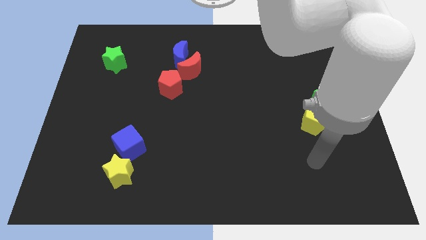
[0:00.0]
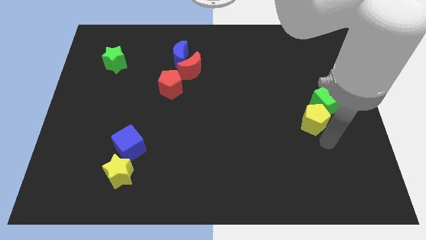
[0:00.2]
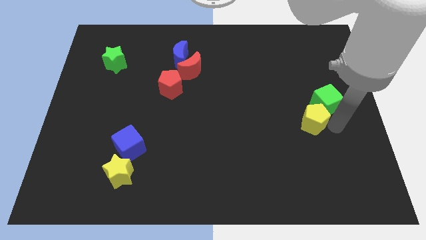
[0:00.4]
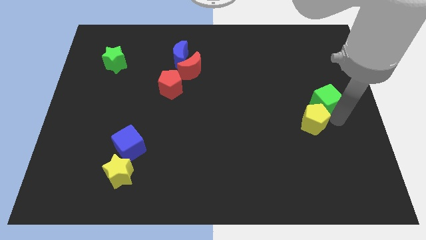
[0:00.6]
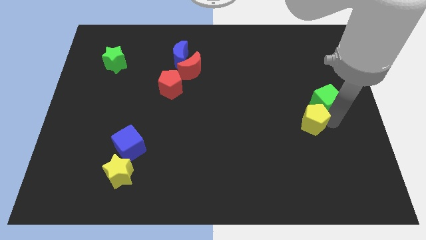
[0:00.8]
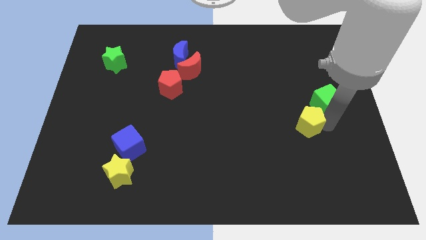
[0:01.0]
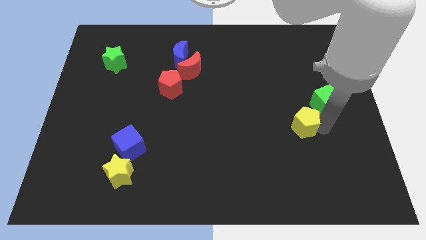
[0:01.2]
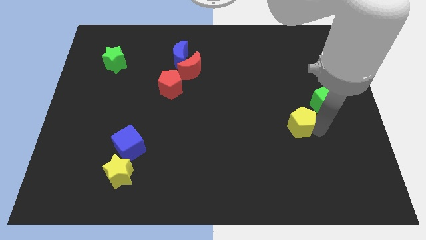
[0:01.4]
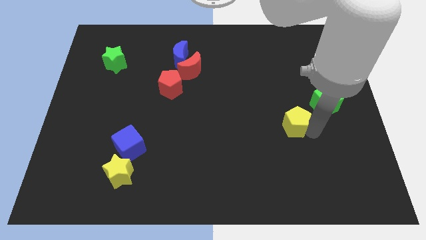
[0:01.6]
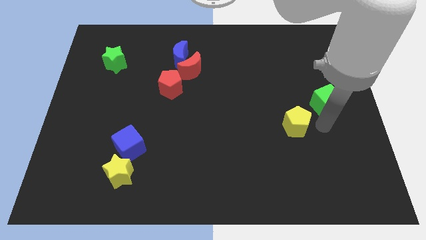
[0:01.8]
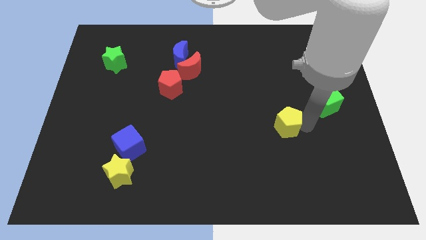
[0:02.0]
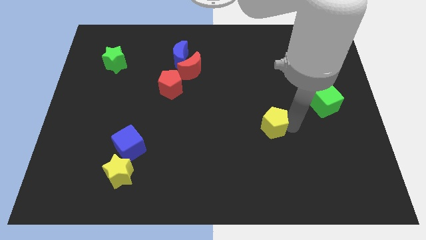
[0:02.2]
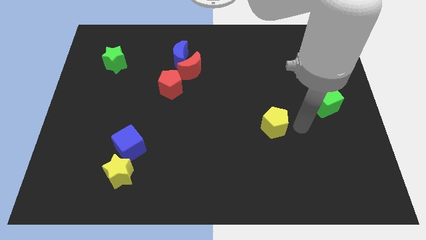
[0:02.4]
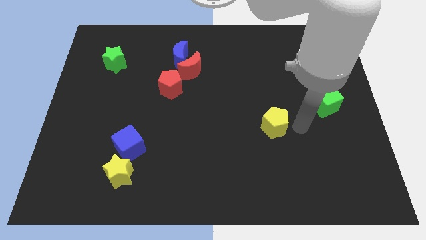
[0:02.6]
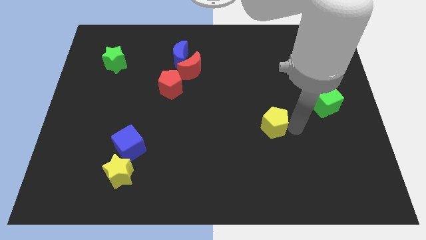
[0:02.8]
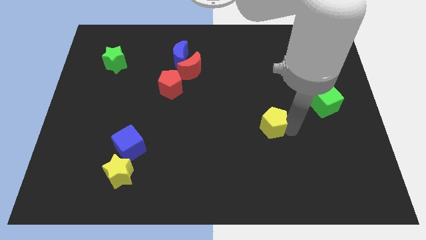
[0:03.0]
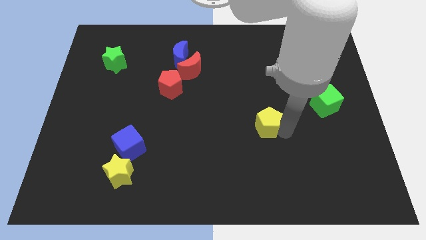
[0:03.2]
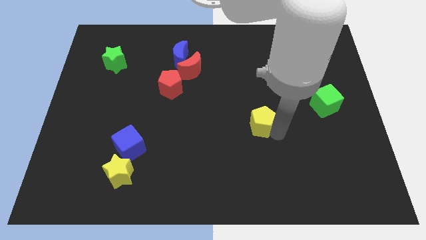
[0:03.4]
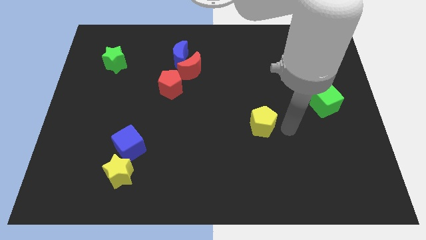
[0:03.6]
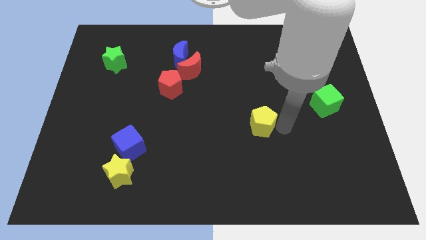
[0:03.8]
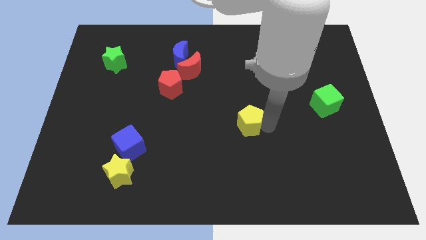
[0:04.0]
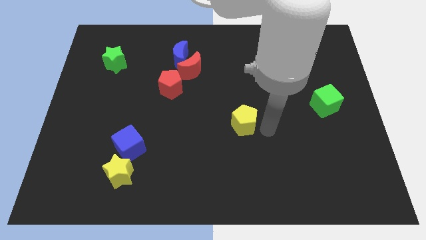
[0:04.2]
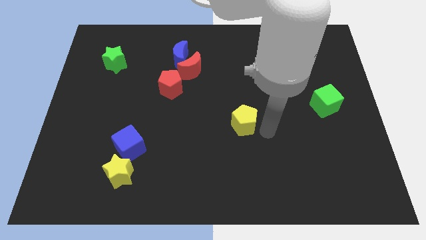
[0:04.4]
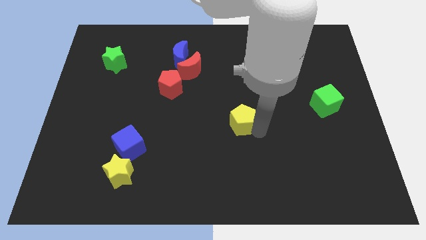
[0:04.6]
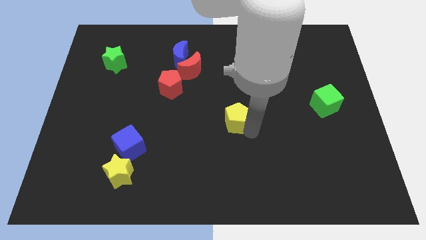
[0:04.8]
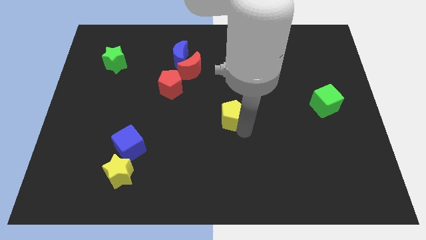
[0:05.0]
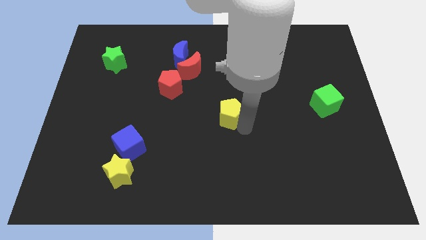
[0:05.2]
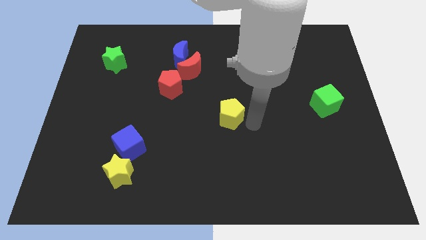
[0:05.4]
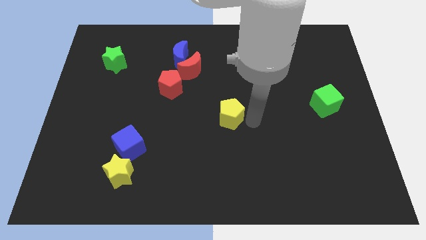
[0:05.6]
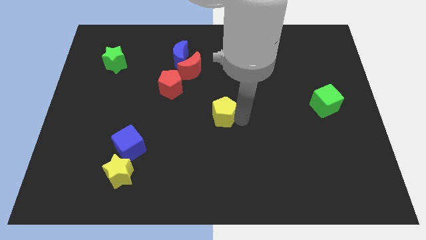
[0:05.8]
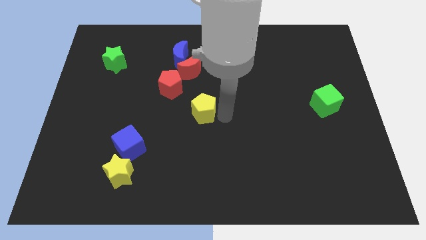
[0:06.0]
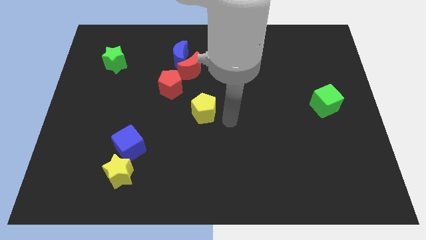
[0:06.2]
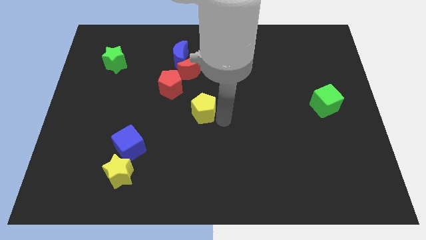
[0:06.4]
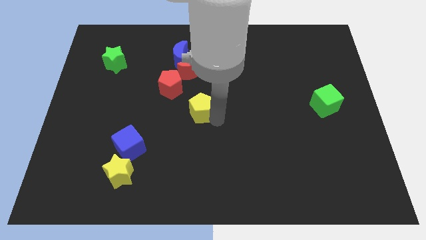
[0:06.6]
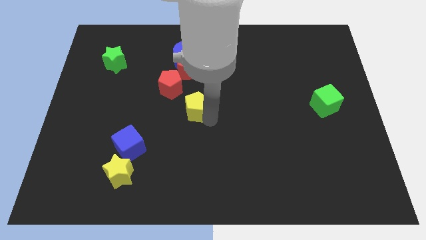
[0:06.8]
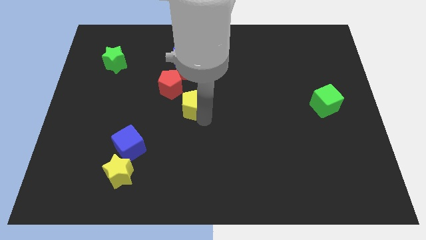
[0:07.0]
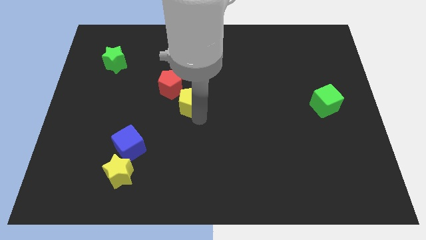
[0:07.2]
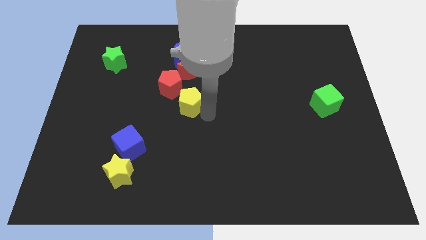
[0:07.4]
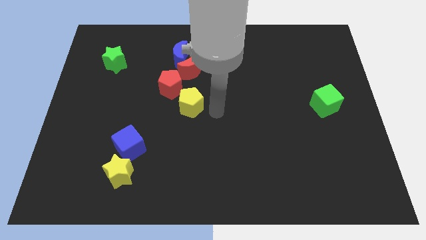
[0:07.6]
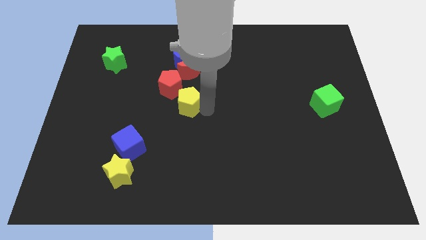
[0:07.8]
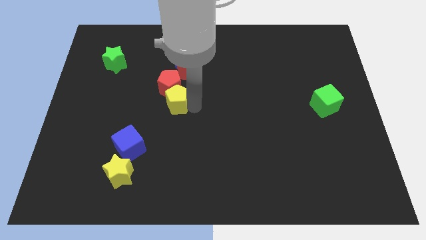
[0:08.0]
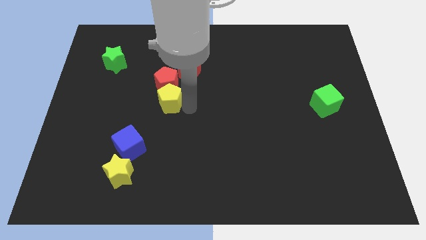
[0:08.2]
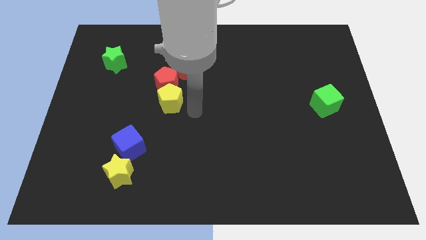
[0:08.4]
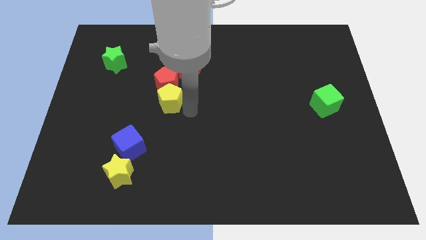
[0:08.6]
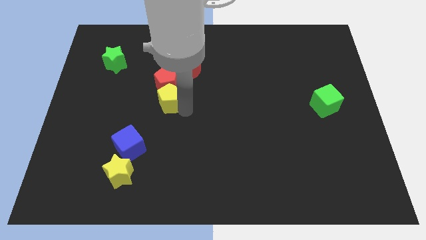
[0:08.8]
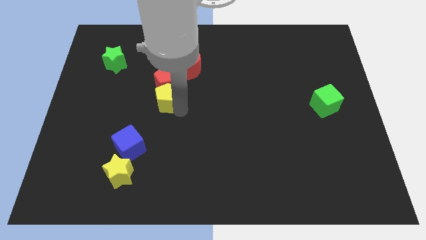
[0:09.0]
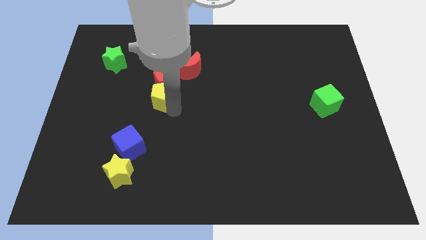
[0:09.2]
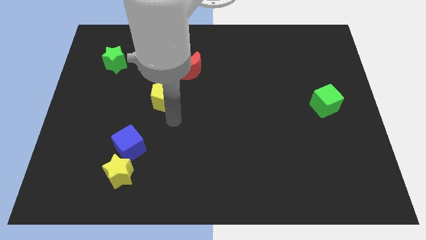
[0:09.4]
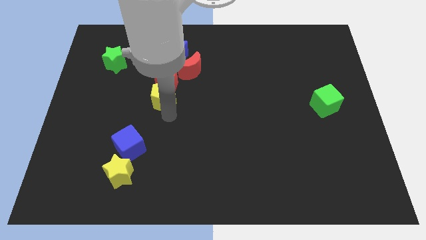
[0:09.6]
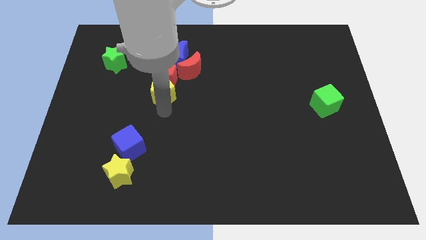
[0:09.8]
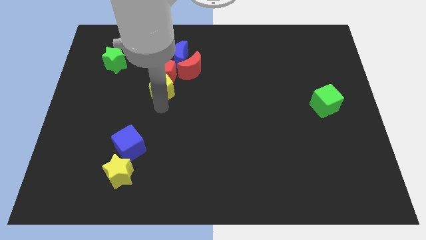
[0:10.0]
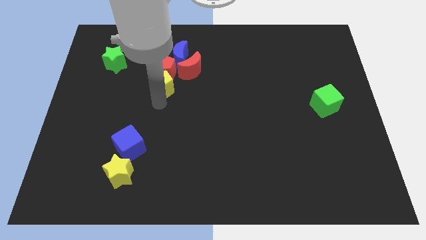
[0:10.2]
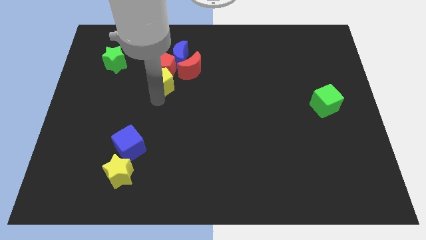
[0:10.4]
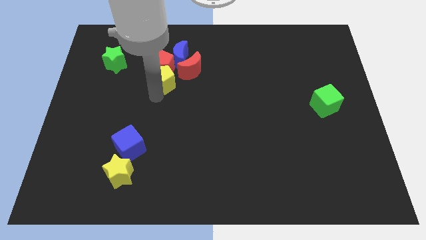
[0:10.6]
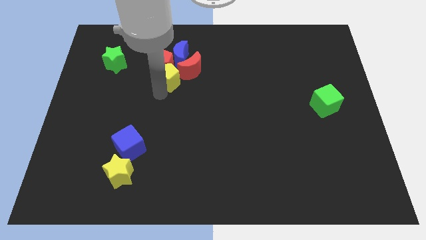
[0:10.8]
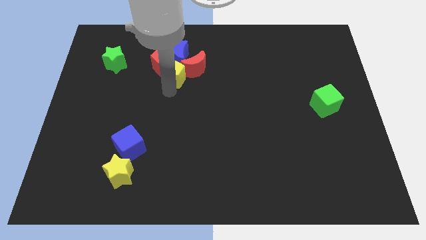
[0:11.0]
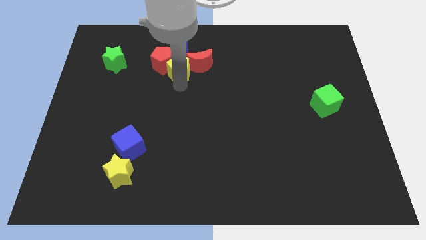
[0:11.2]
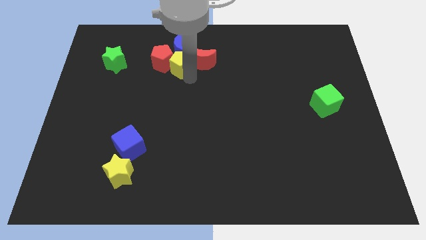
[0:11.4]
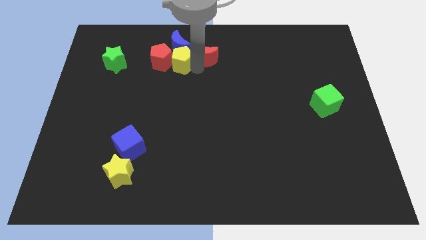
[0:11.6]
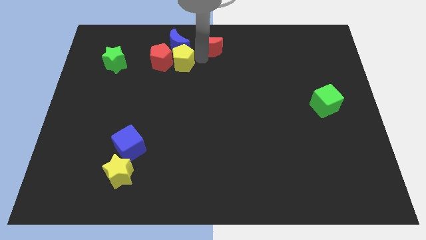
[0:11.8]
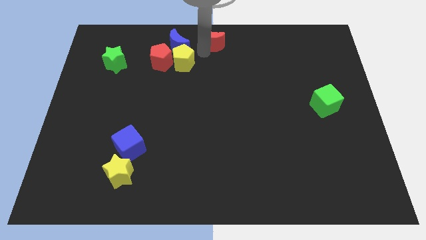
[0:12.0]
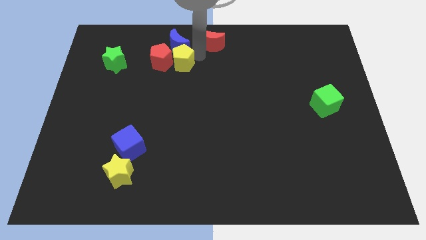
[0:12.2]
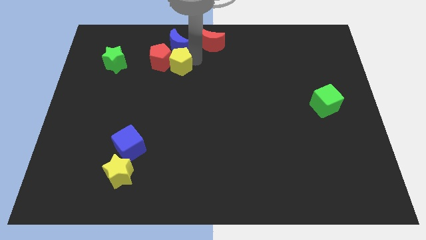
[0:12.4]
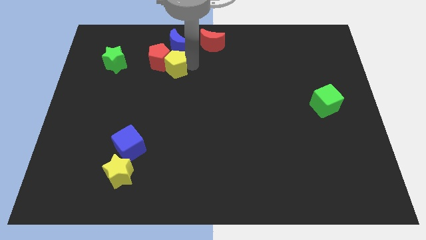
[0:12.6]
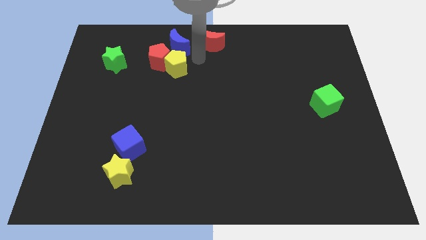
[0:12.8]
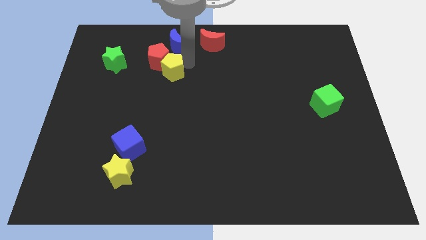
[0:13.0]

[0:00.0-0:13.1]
put the yellow pentagon just right of the green star

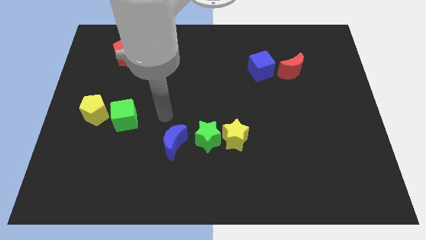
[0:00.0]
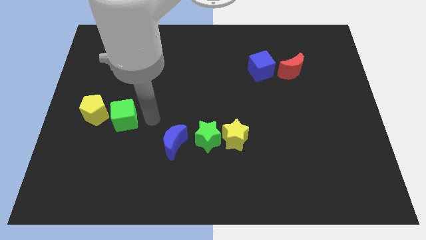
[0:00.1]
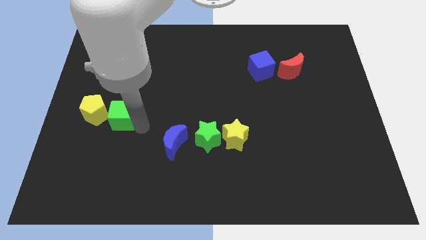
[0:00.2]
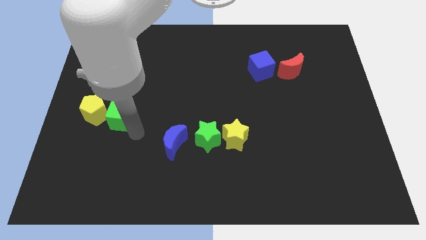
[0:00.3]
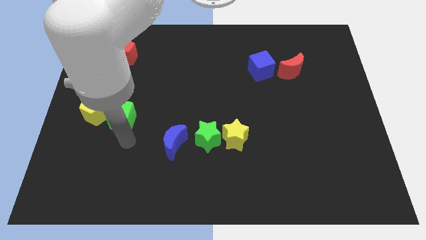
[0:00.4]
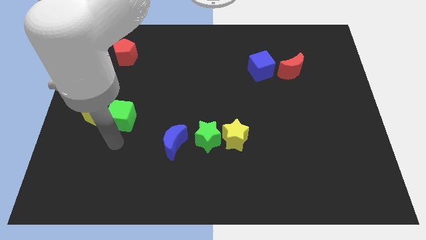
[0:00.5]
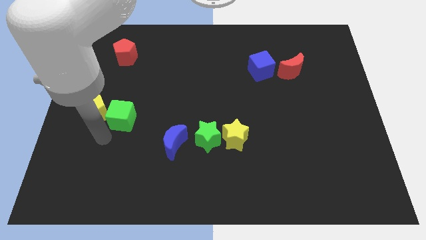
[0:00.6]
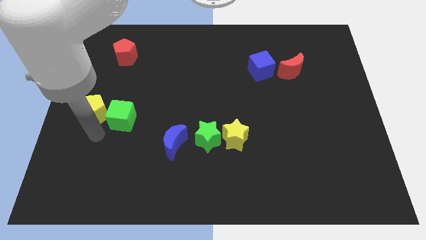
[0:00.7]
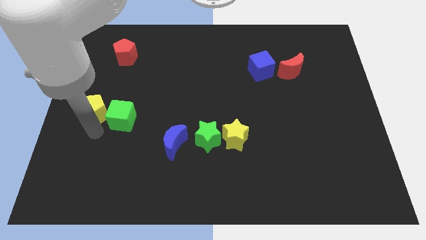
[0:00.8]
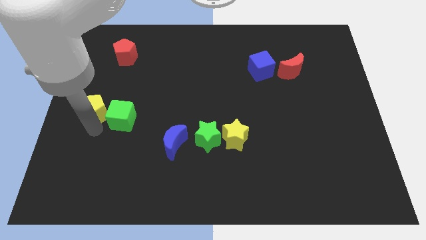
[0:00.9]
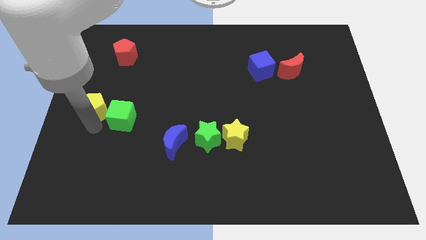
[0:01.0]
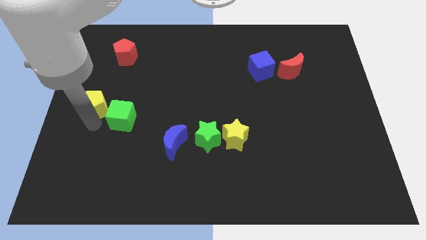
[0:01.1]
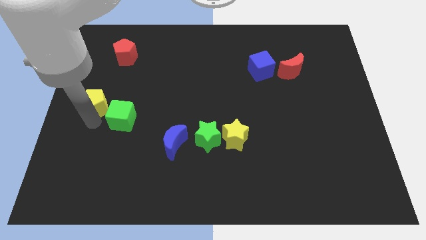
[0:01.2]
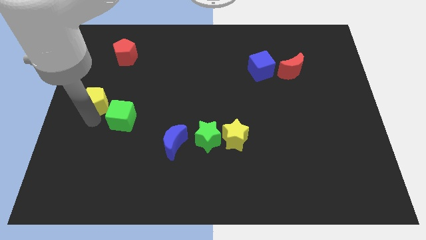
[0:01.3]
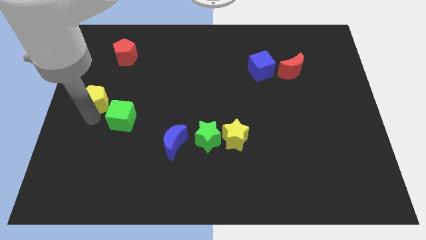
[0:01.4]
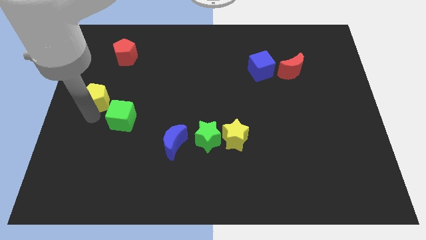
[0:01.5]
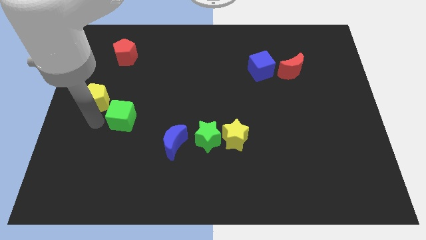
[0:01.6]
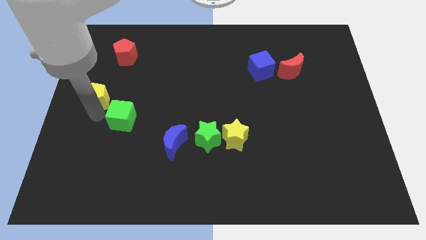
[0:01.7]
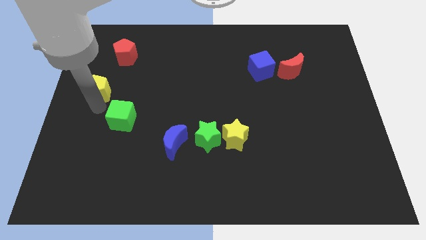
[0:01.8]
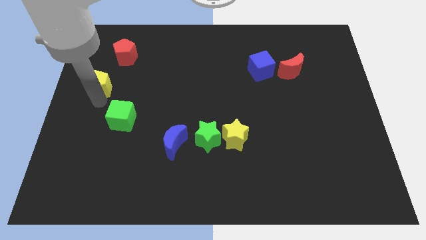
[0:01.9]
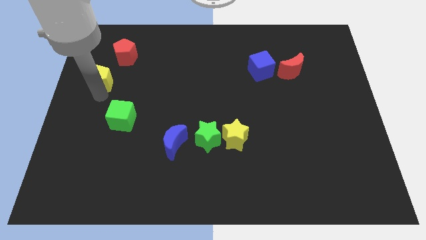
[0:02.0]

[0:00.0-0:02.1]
move the yellow pentagon to the bottom left side of the red pentagon
